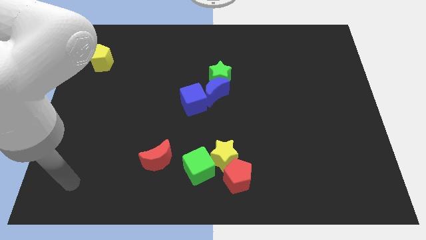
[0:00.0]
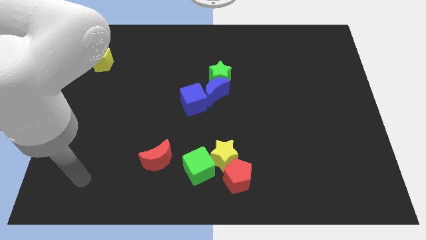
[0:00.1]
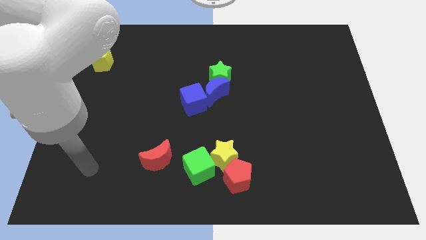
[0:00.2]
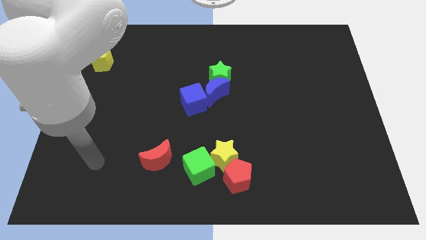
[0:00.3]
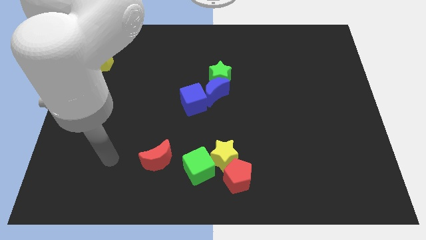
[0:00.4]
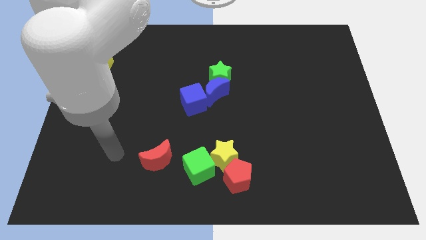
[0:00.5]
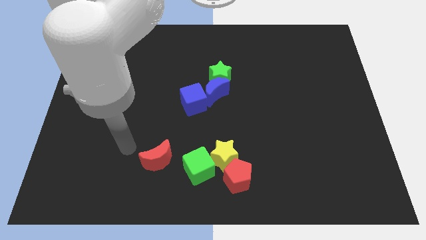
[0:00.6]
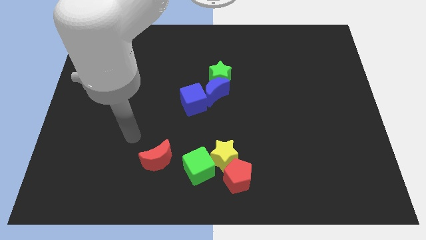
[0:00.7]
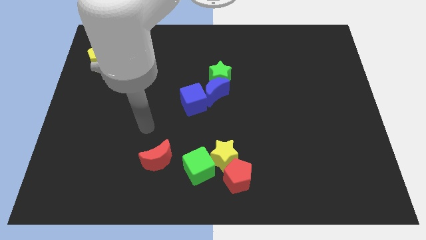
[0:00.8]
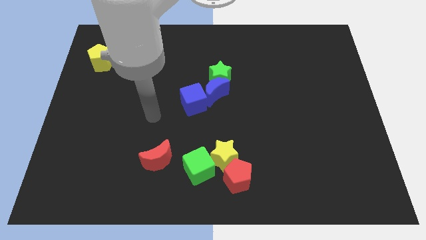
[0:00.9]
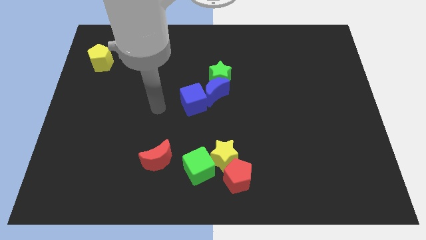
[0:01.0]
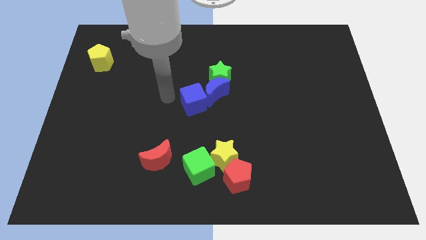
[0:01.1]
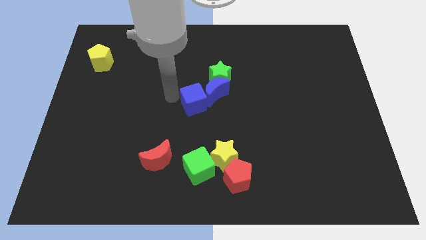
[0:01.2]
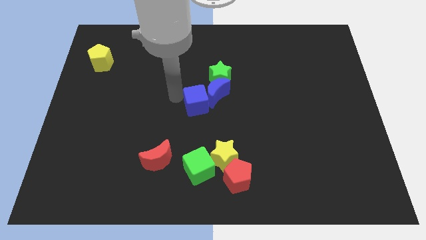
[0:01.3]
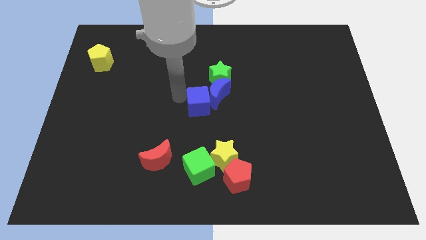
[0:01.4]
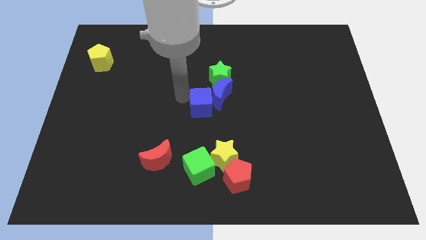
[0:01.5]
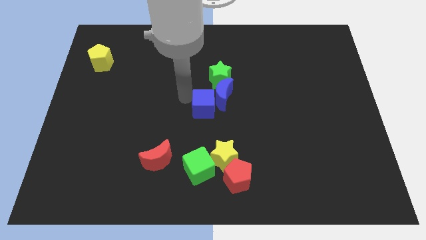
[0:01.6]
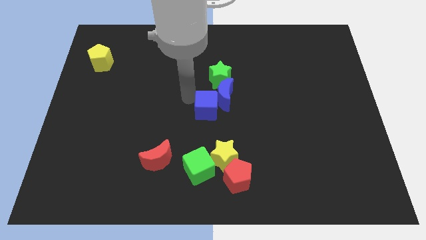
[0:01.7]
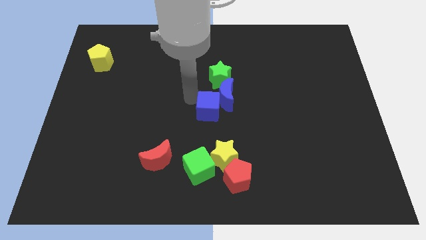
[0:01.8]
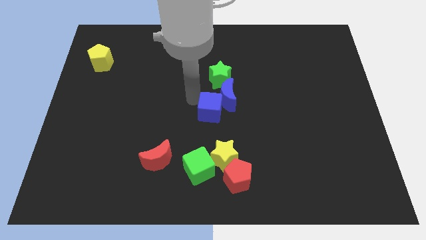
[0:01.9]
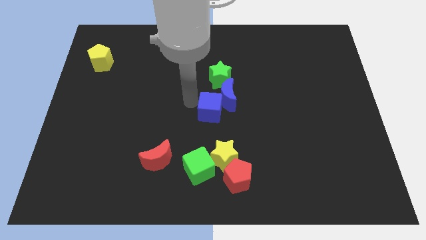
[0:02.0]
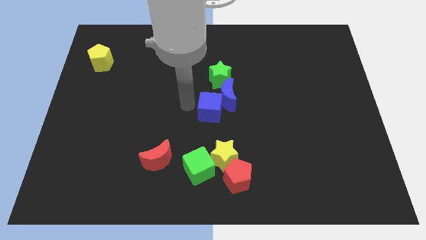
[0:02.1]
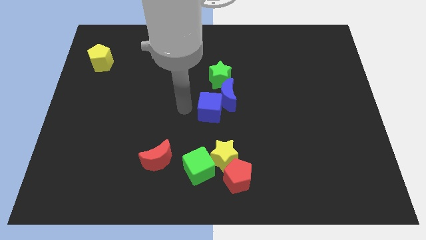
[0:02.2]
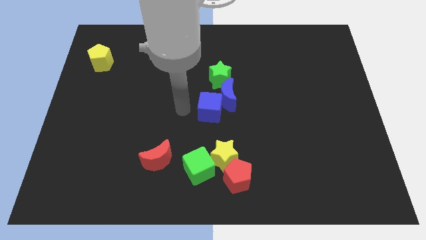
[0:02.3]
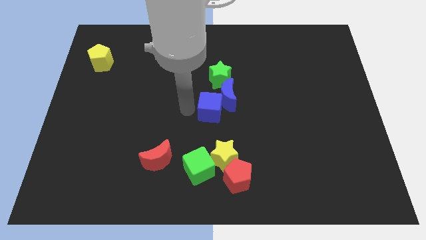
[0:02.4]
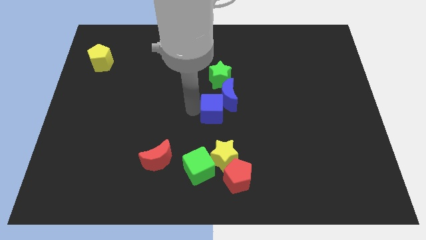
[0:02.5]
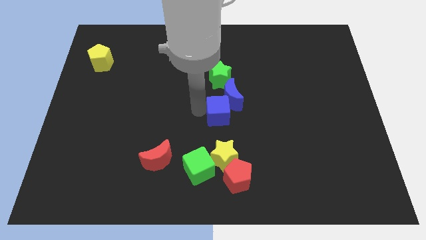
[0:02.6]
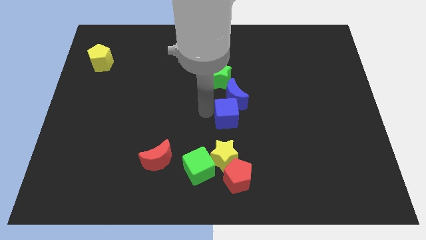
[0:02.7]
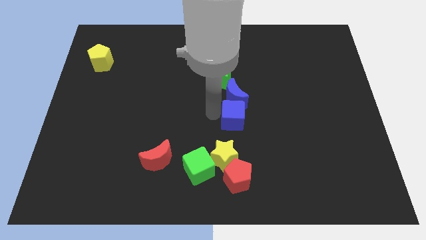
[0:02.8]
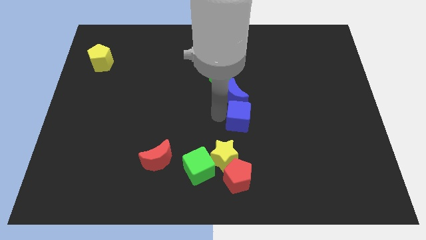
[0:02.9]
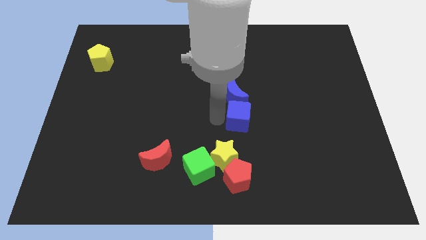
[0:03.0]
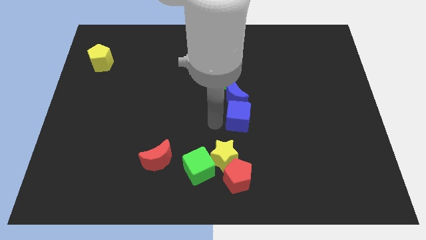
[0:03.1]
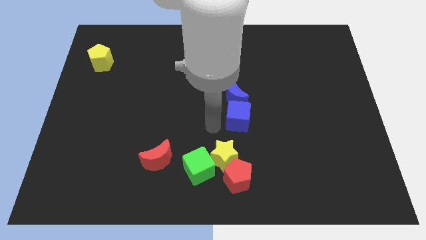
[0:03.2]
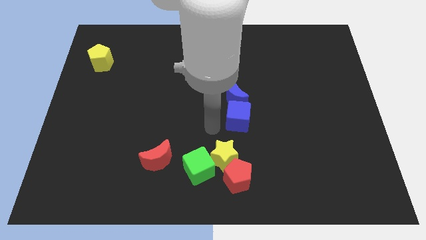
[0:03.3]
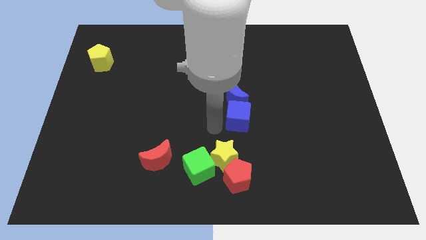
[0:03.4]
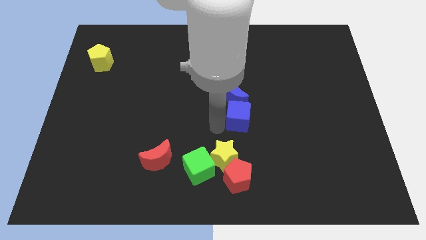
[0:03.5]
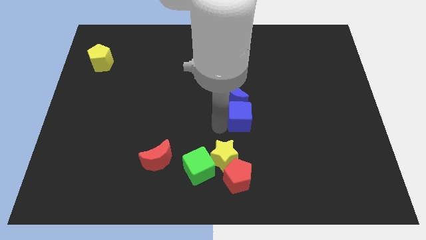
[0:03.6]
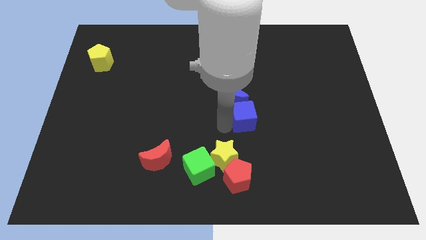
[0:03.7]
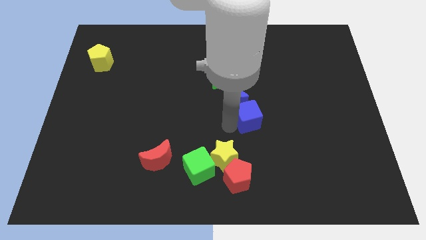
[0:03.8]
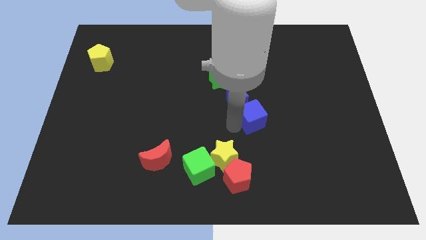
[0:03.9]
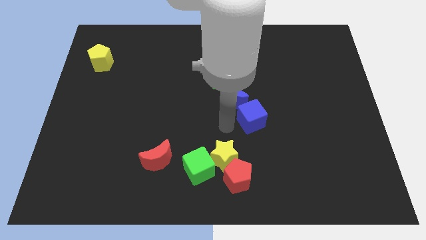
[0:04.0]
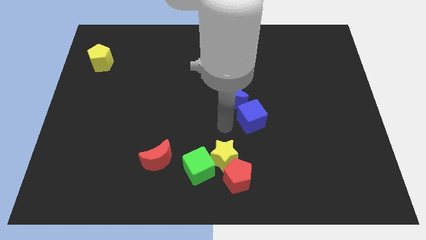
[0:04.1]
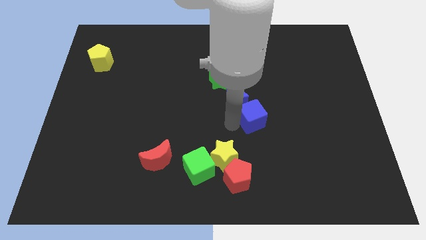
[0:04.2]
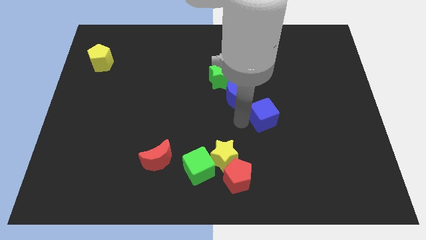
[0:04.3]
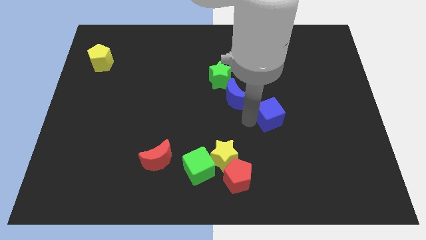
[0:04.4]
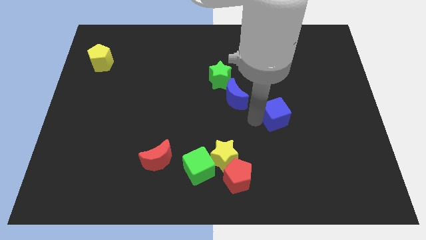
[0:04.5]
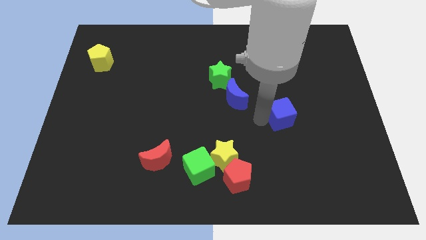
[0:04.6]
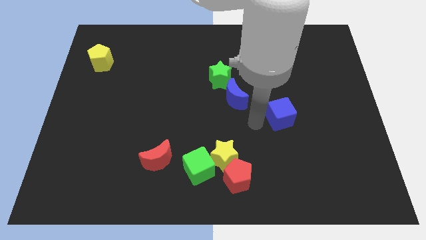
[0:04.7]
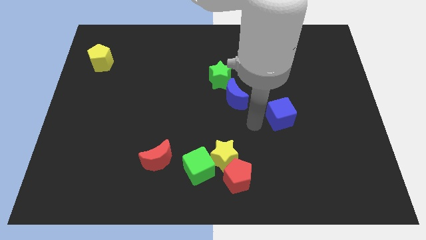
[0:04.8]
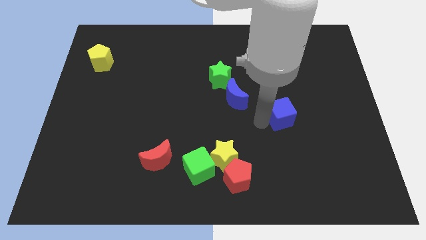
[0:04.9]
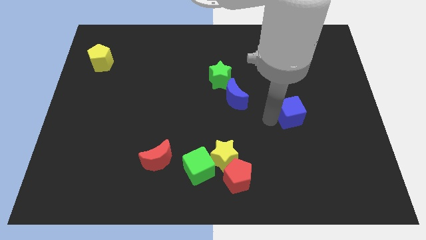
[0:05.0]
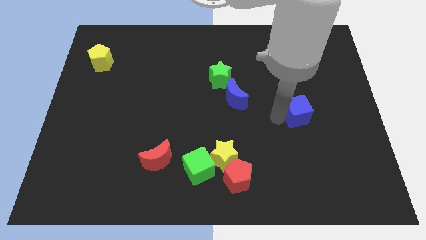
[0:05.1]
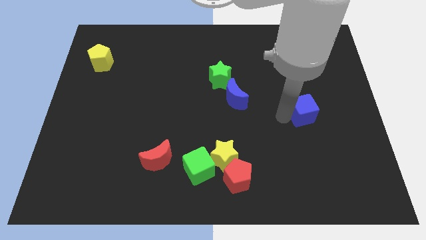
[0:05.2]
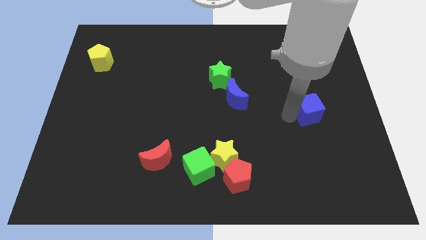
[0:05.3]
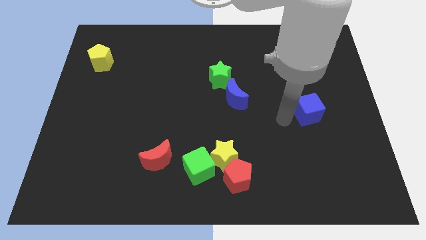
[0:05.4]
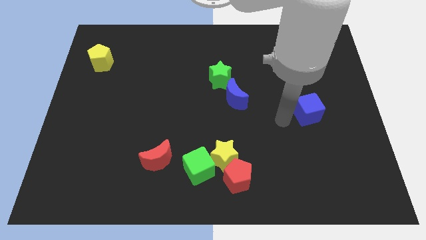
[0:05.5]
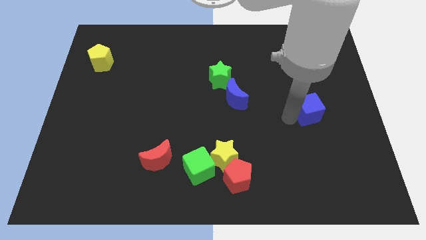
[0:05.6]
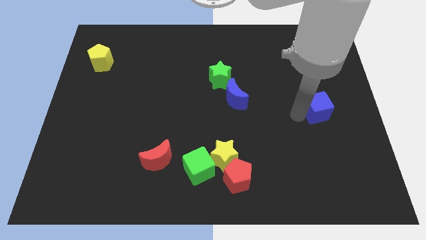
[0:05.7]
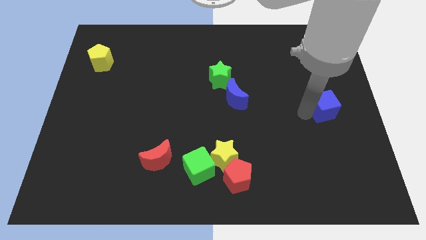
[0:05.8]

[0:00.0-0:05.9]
push the blue cube to the center right
